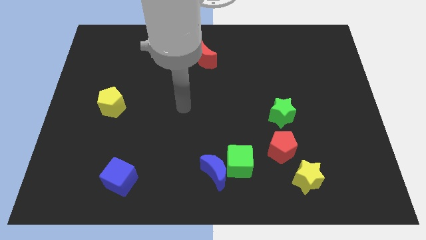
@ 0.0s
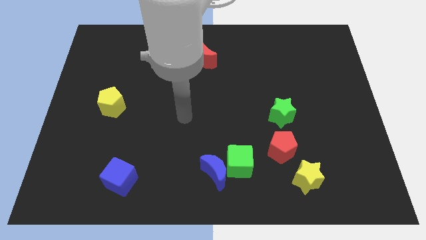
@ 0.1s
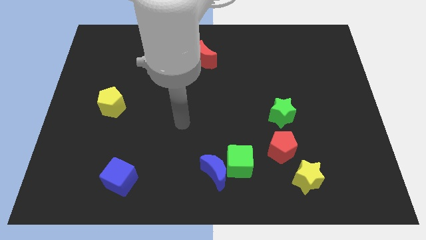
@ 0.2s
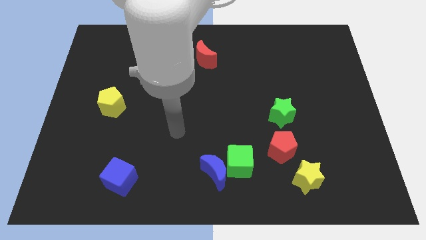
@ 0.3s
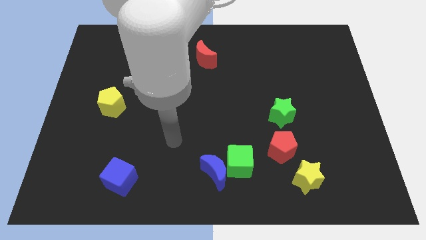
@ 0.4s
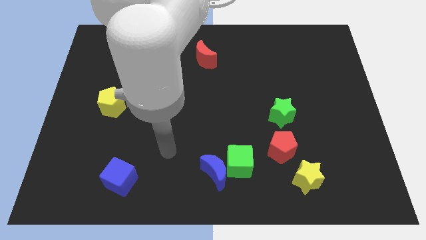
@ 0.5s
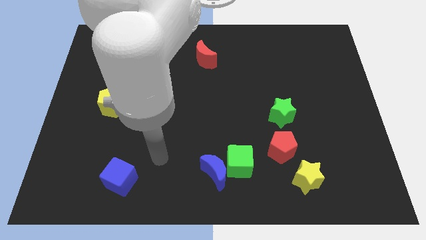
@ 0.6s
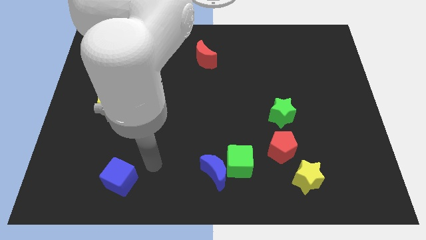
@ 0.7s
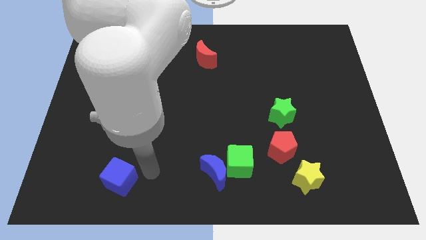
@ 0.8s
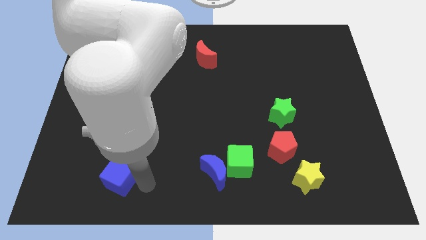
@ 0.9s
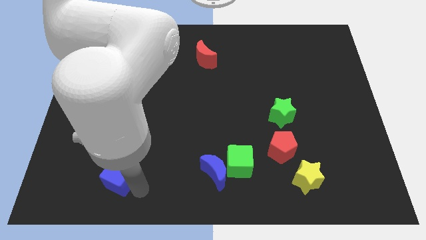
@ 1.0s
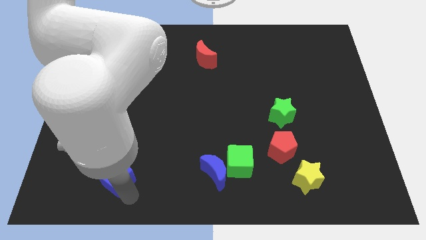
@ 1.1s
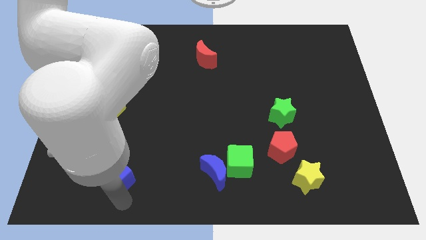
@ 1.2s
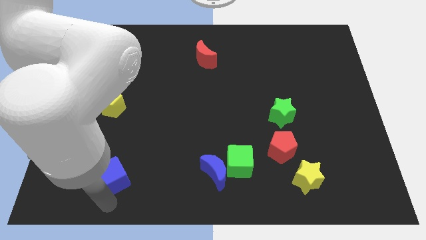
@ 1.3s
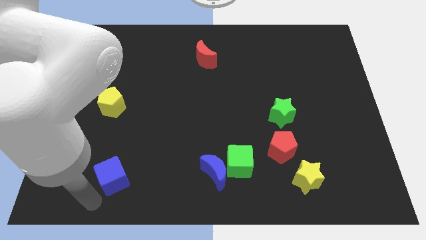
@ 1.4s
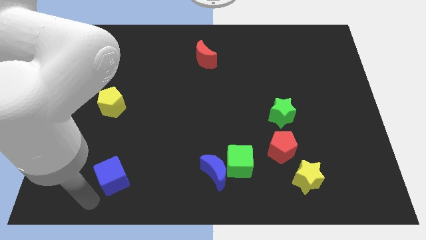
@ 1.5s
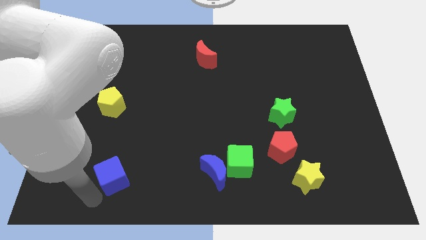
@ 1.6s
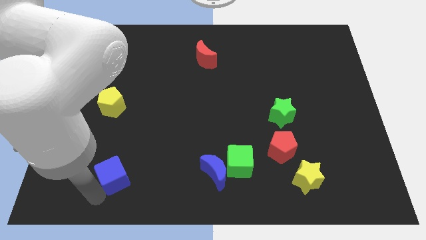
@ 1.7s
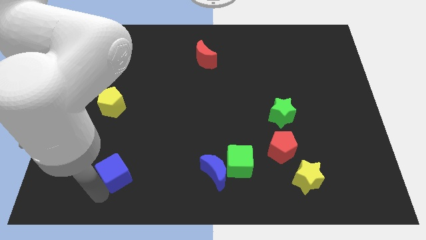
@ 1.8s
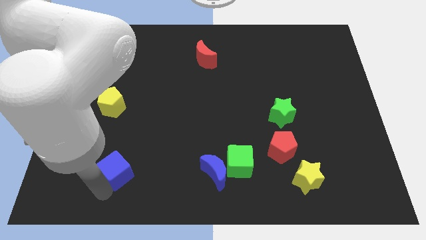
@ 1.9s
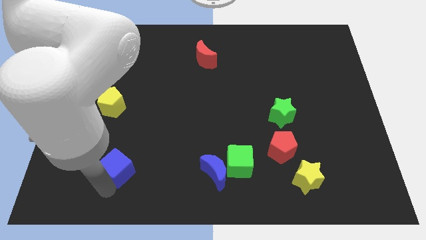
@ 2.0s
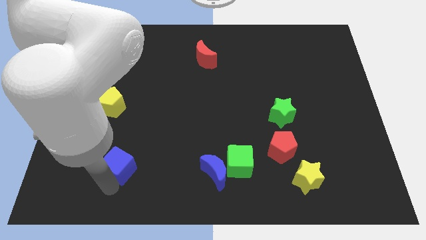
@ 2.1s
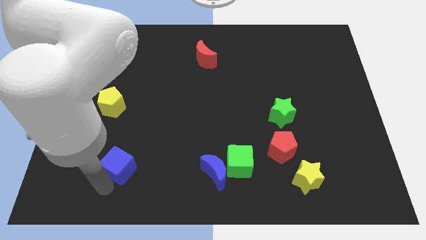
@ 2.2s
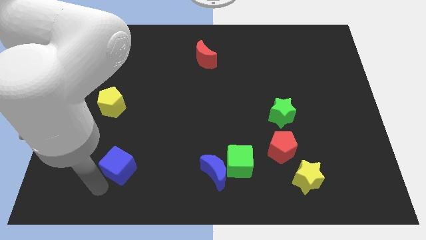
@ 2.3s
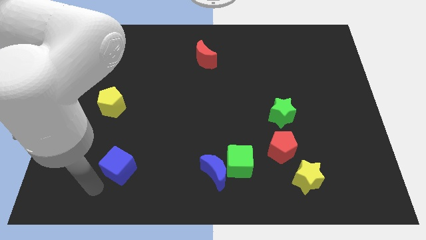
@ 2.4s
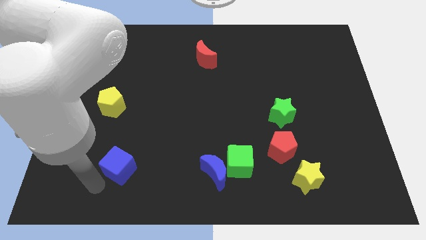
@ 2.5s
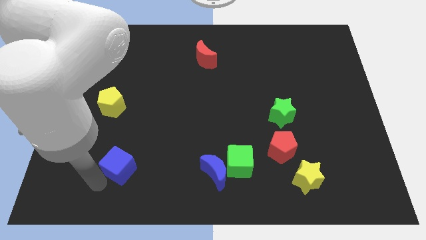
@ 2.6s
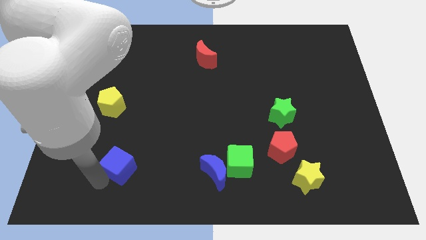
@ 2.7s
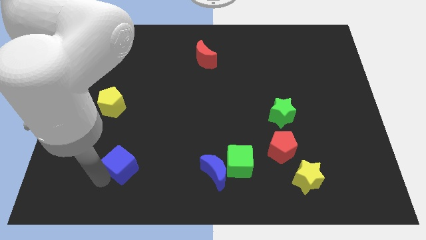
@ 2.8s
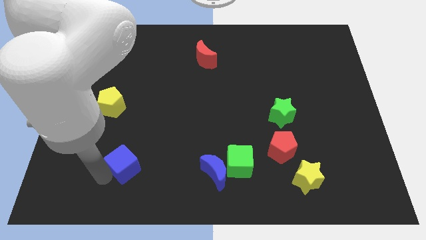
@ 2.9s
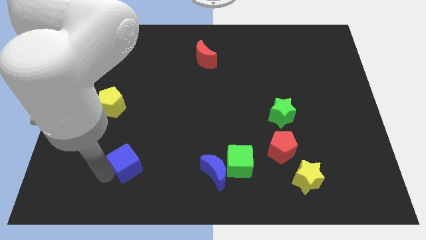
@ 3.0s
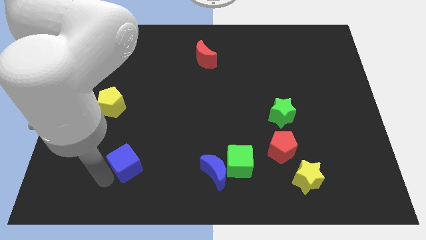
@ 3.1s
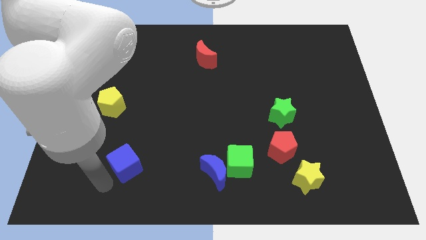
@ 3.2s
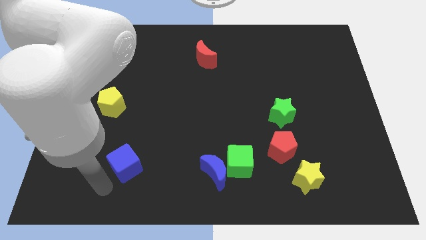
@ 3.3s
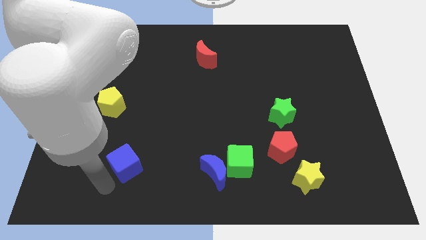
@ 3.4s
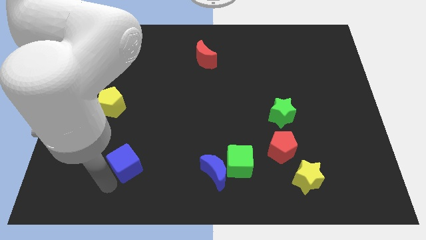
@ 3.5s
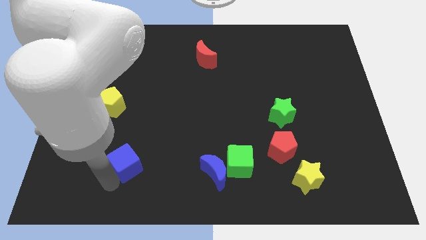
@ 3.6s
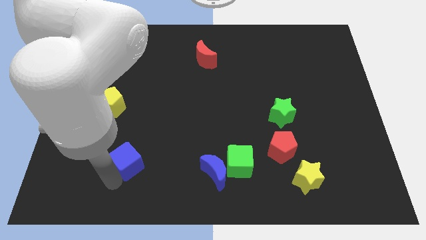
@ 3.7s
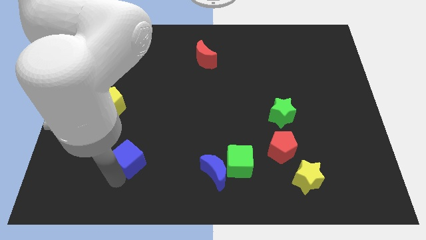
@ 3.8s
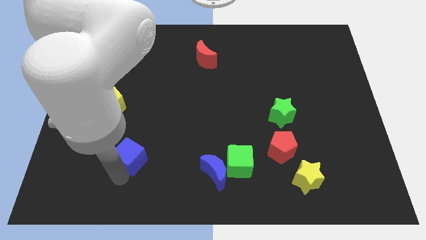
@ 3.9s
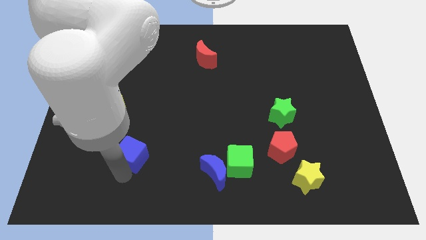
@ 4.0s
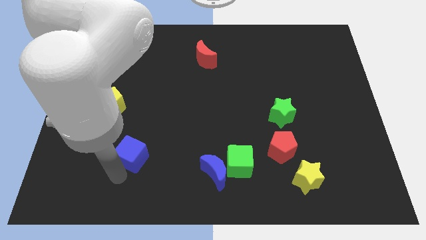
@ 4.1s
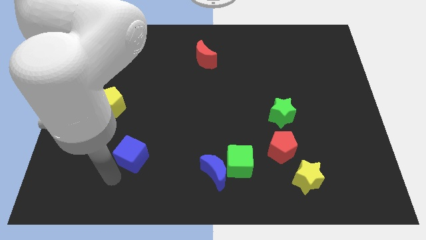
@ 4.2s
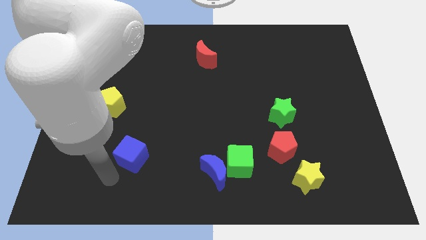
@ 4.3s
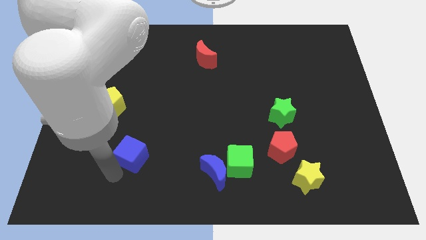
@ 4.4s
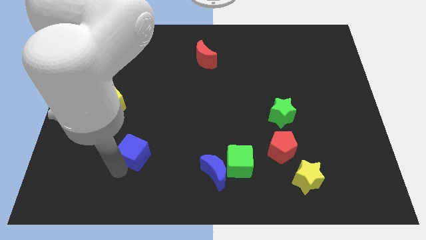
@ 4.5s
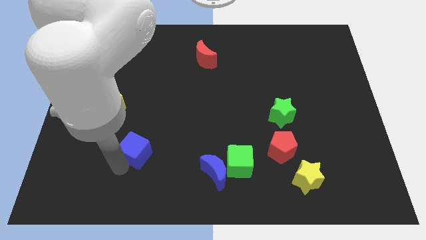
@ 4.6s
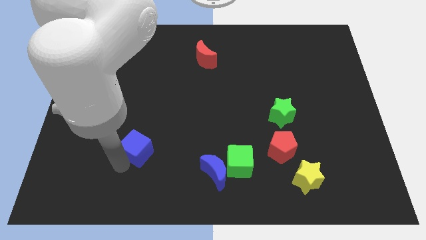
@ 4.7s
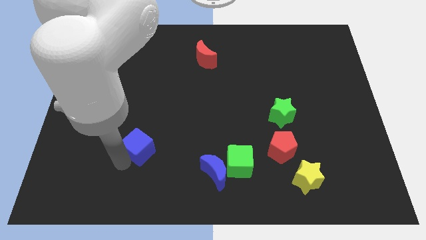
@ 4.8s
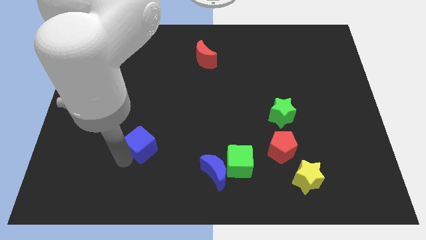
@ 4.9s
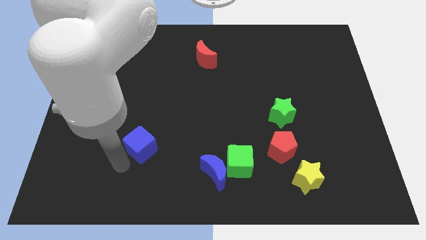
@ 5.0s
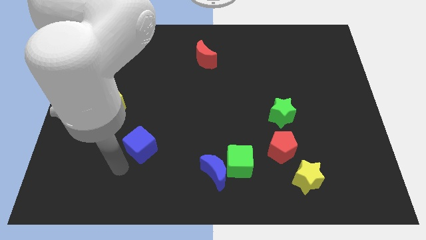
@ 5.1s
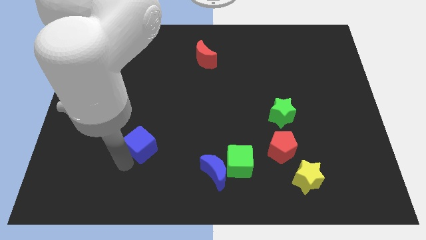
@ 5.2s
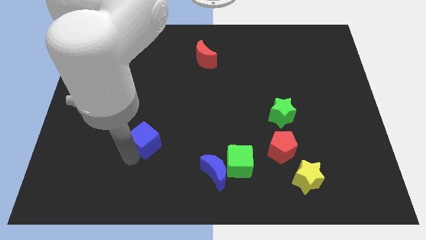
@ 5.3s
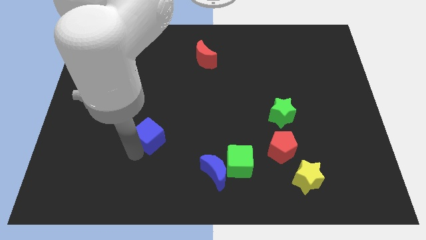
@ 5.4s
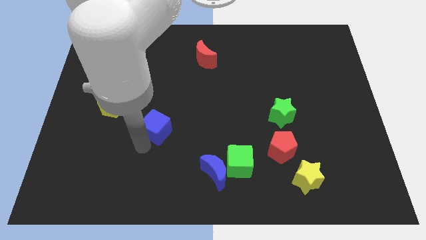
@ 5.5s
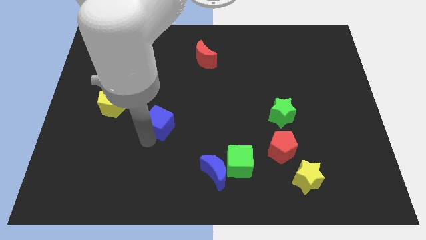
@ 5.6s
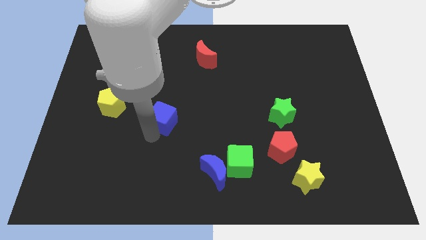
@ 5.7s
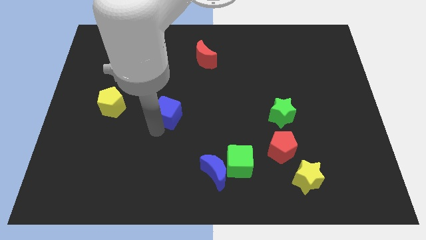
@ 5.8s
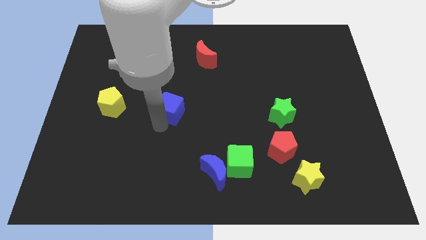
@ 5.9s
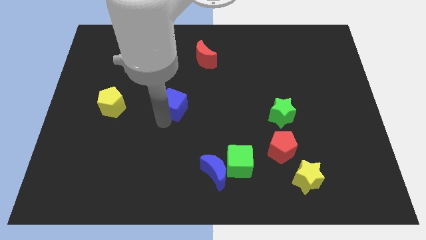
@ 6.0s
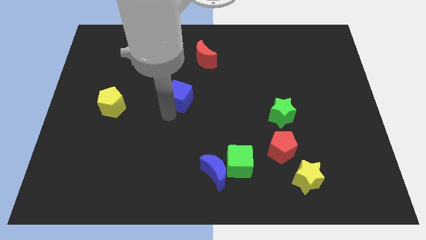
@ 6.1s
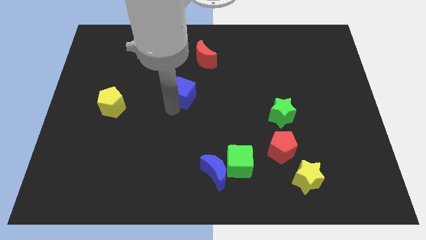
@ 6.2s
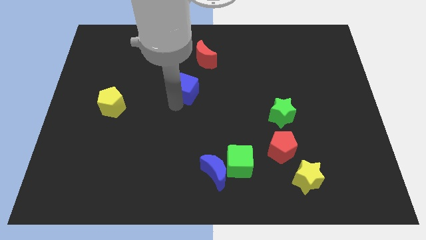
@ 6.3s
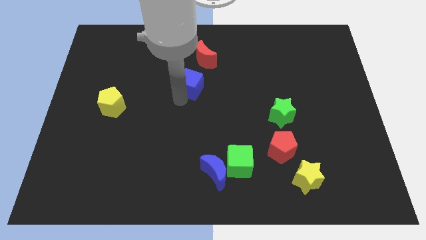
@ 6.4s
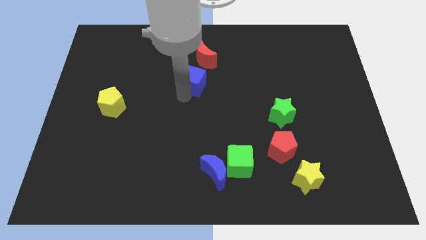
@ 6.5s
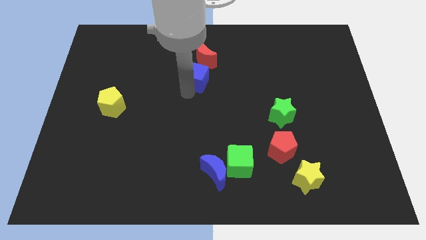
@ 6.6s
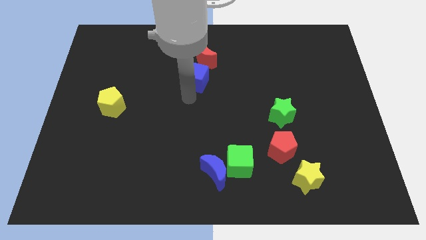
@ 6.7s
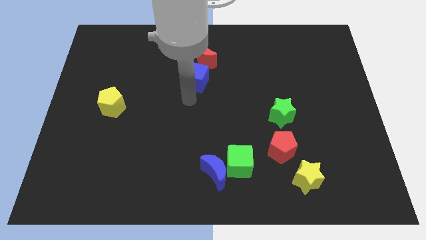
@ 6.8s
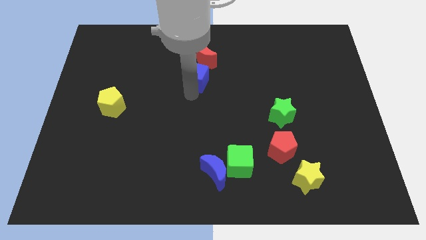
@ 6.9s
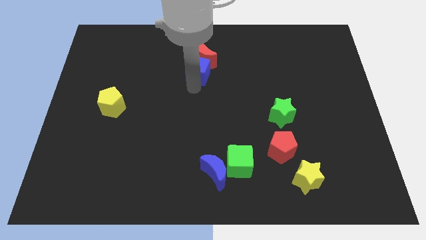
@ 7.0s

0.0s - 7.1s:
slide the blue cube next to the red moon
